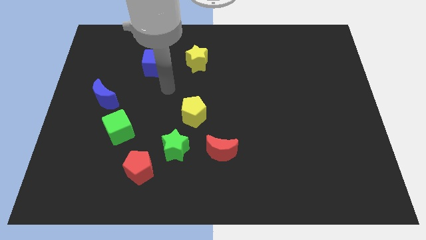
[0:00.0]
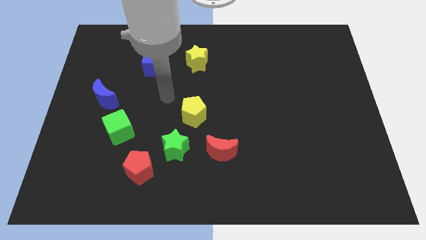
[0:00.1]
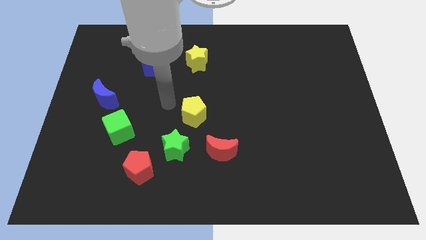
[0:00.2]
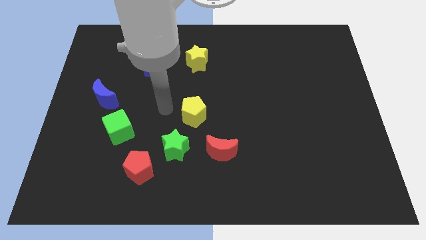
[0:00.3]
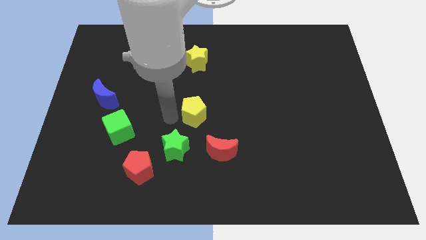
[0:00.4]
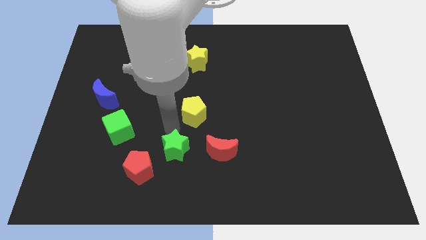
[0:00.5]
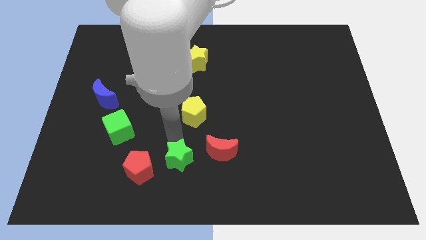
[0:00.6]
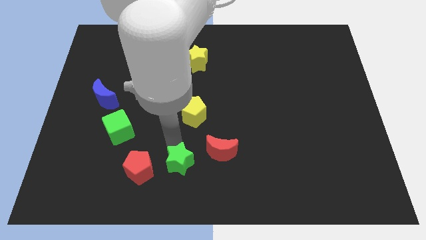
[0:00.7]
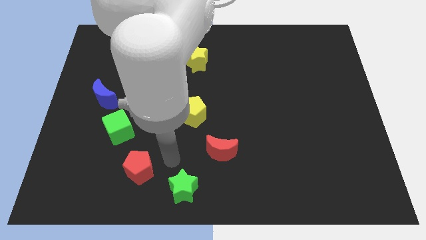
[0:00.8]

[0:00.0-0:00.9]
separate the red pentagon from the green star

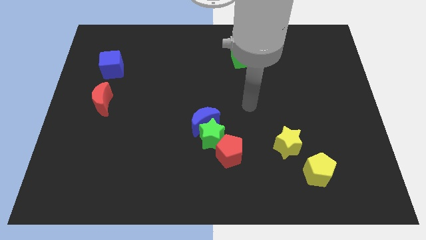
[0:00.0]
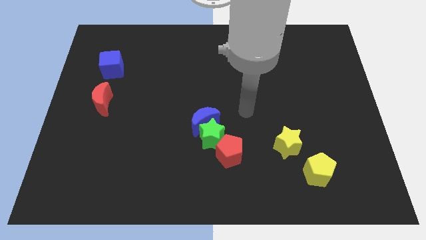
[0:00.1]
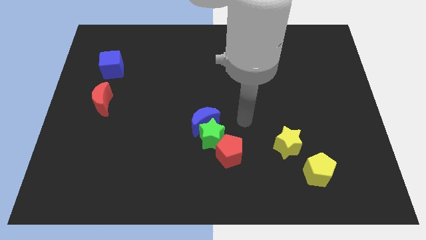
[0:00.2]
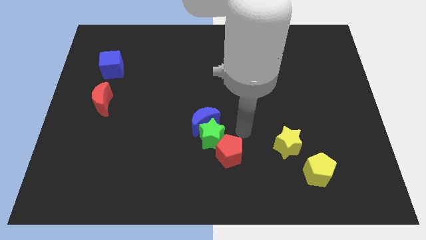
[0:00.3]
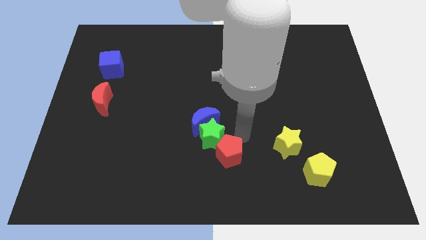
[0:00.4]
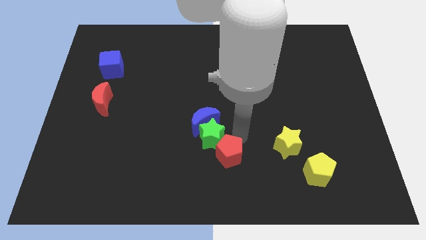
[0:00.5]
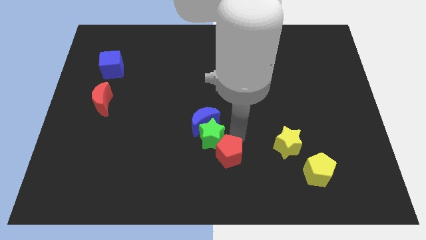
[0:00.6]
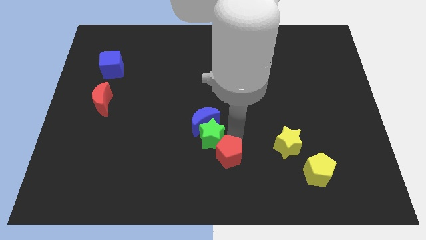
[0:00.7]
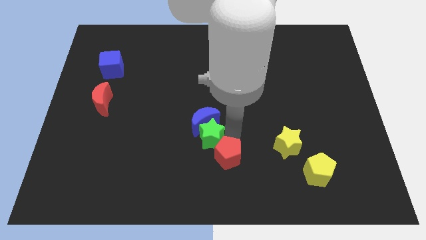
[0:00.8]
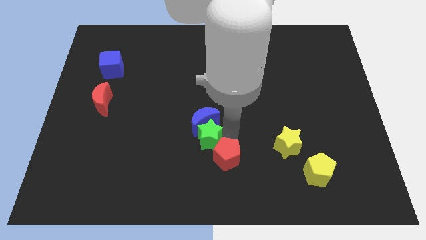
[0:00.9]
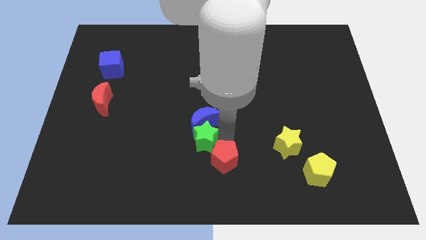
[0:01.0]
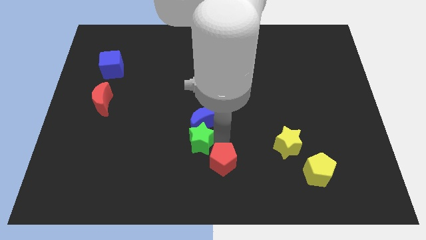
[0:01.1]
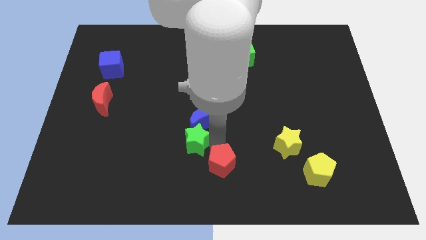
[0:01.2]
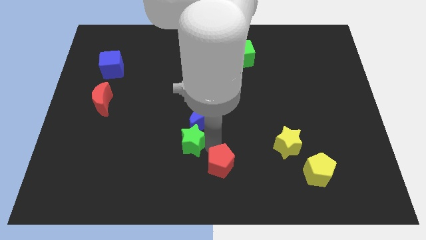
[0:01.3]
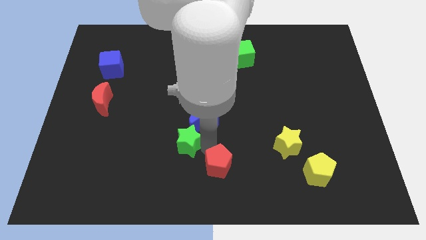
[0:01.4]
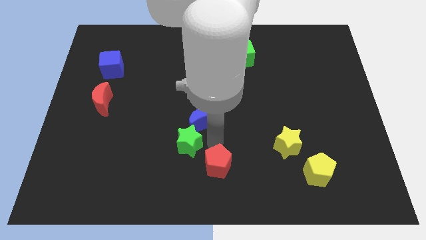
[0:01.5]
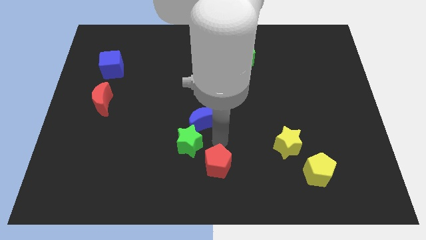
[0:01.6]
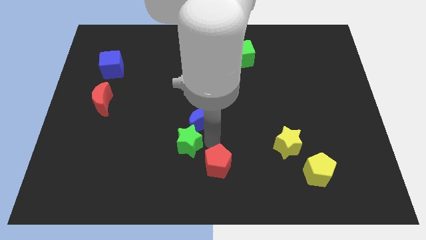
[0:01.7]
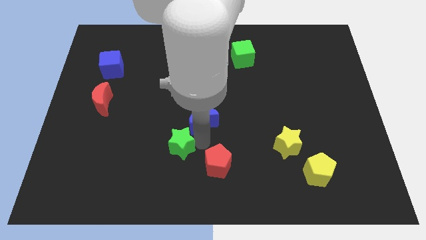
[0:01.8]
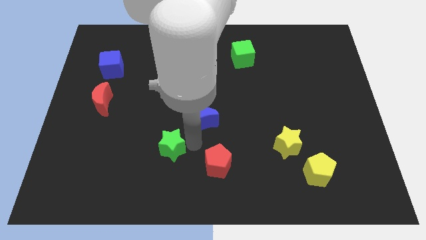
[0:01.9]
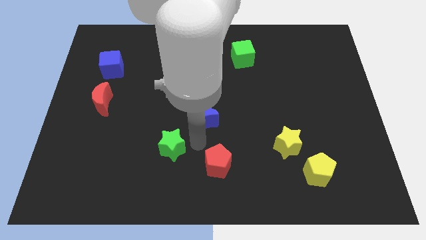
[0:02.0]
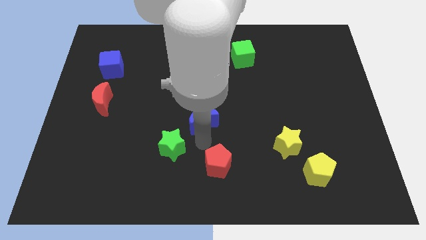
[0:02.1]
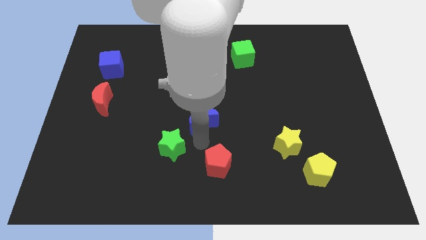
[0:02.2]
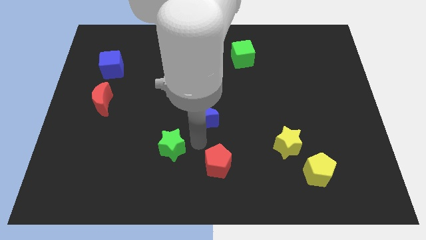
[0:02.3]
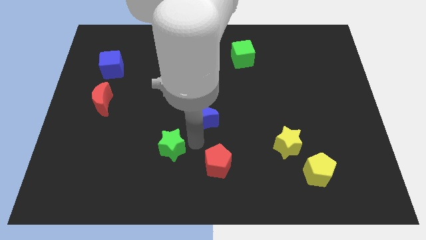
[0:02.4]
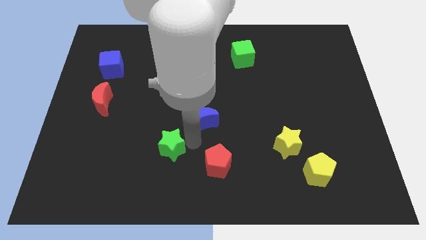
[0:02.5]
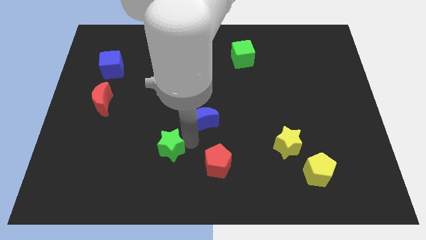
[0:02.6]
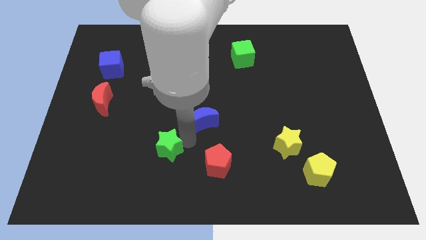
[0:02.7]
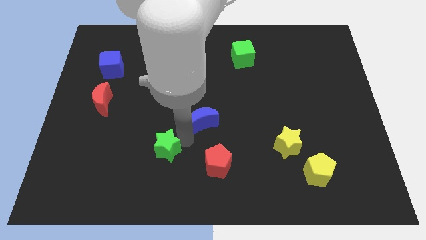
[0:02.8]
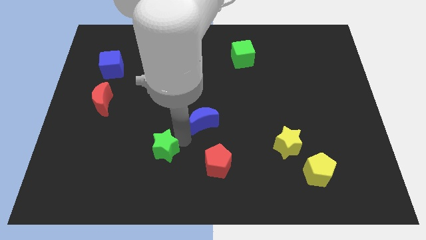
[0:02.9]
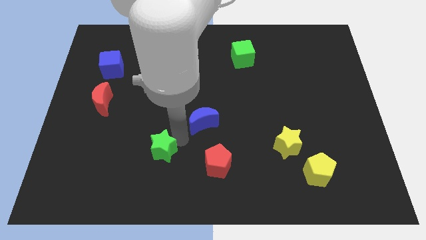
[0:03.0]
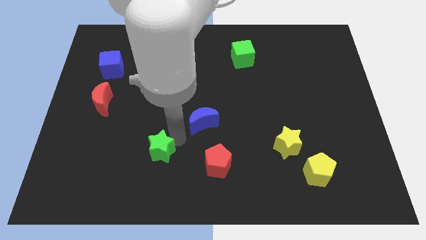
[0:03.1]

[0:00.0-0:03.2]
separate the green star from the blue moon and red pentagon

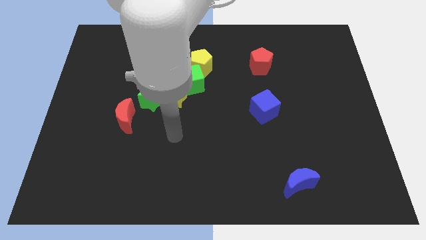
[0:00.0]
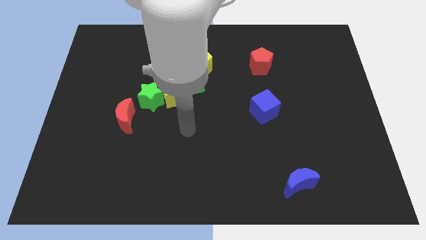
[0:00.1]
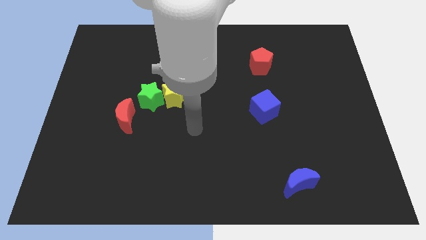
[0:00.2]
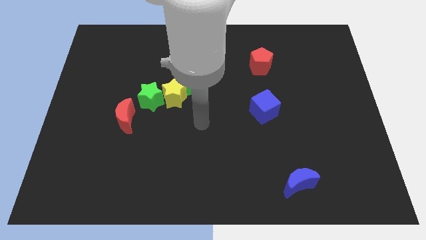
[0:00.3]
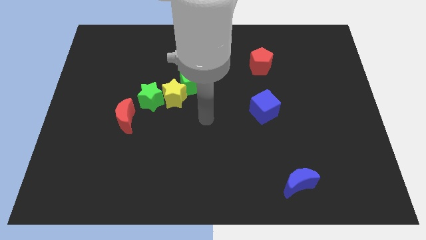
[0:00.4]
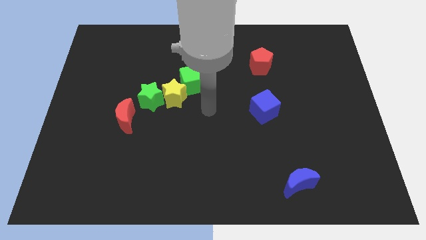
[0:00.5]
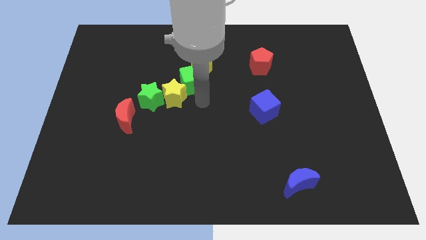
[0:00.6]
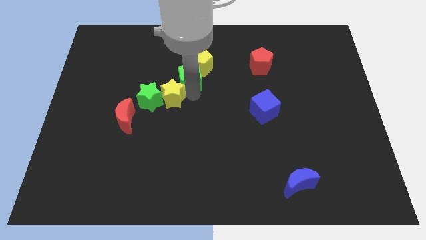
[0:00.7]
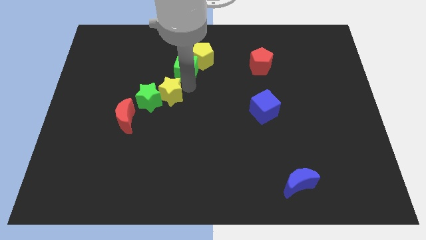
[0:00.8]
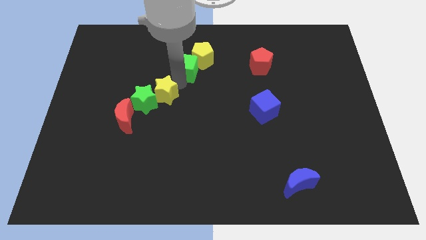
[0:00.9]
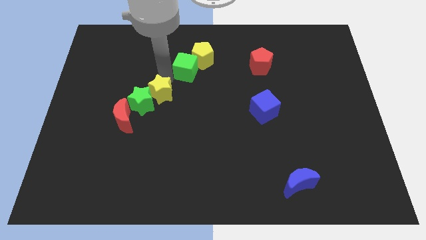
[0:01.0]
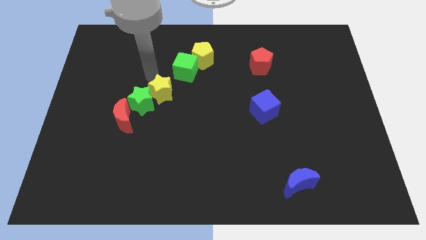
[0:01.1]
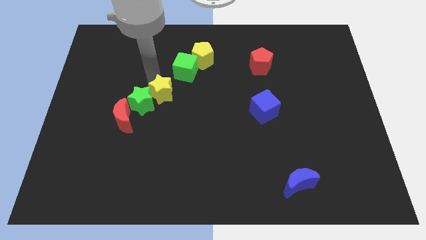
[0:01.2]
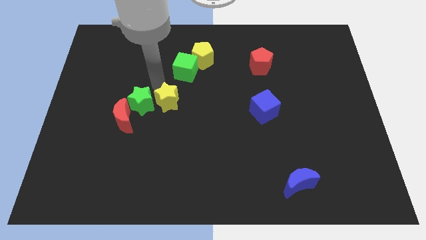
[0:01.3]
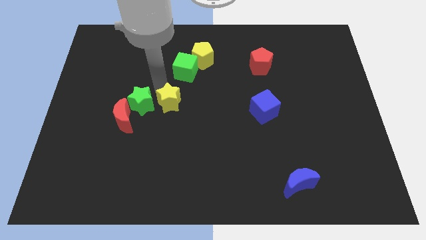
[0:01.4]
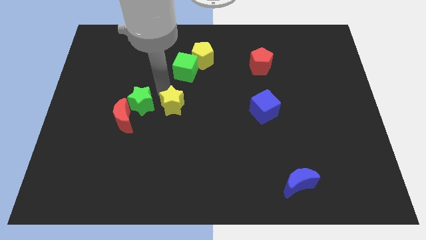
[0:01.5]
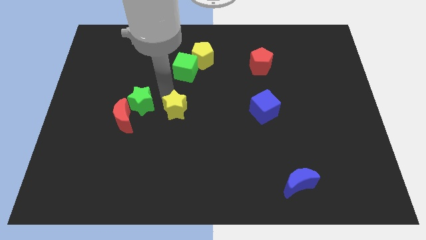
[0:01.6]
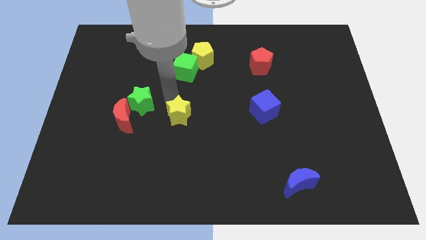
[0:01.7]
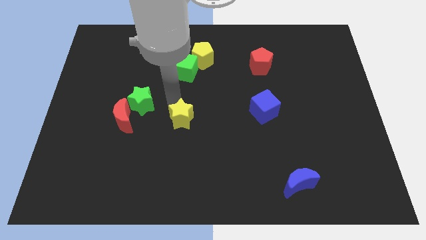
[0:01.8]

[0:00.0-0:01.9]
separate the yellow star from the green star and green cube

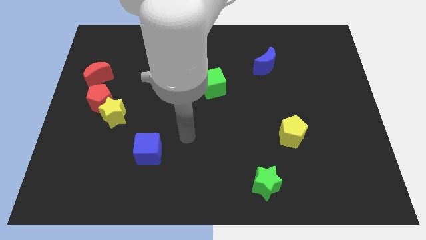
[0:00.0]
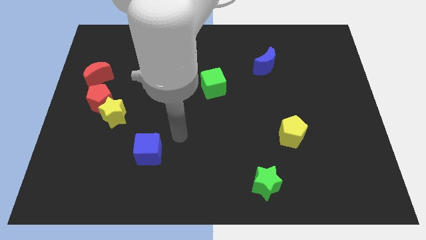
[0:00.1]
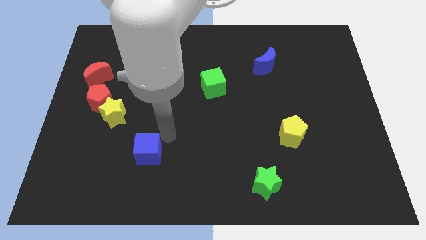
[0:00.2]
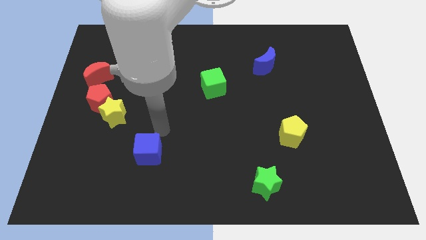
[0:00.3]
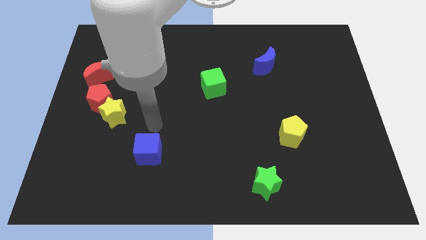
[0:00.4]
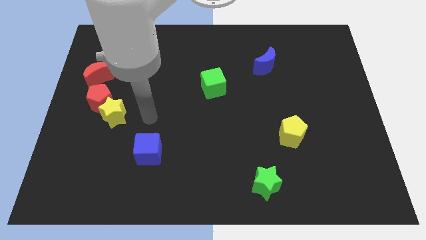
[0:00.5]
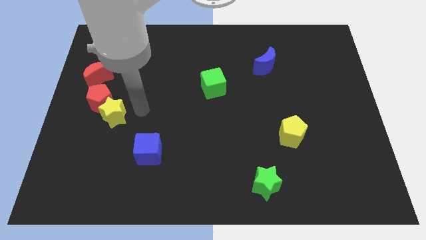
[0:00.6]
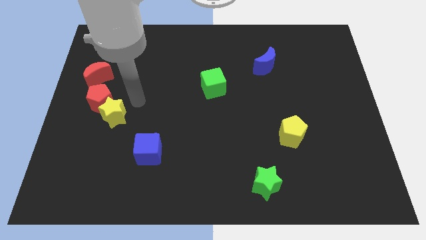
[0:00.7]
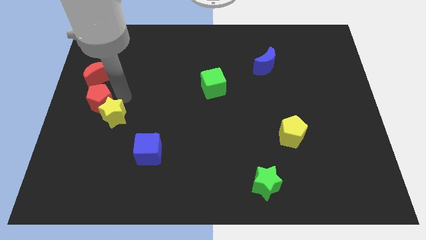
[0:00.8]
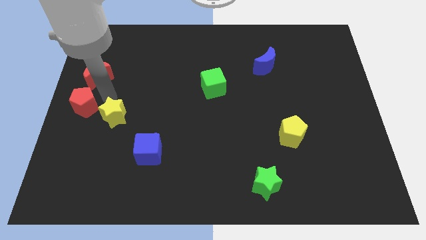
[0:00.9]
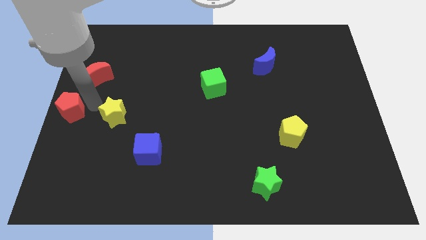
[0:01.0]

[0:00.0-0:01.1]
pull the yellow star apart from the red pentagon

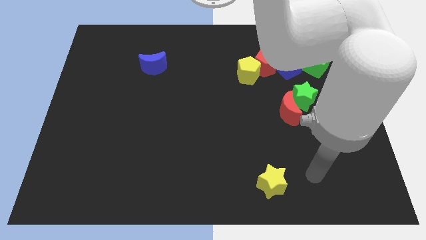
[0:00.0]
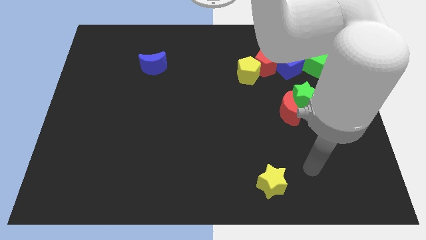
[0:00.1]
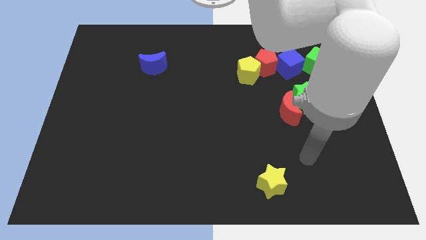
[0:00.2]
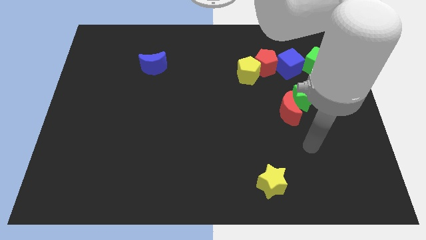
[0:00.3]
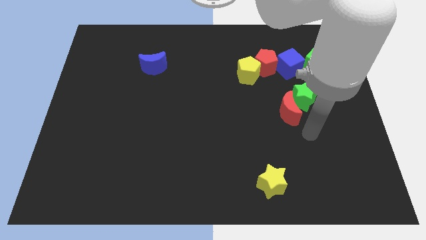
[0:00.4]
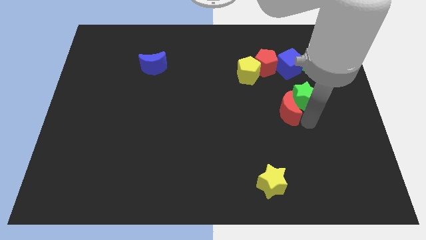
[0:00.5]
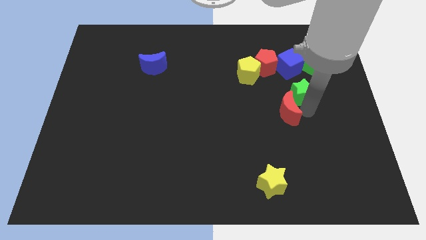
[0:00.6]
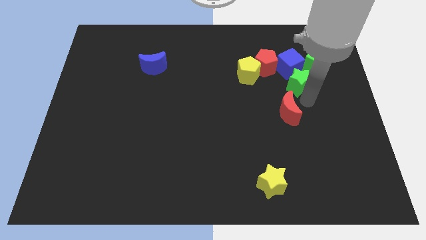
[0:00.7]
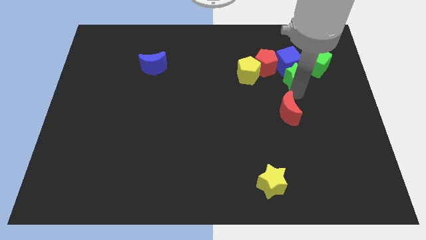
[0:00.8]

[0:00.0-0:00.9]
separate the red moon from the green star

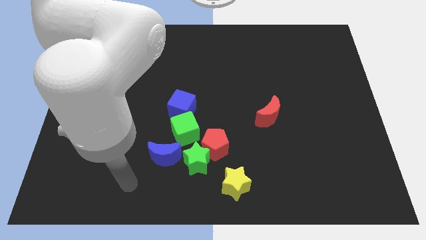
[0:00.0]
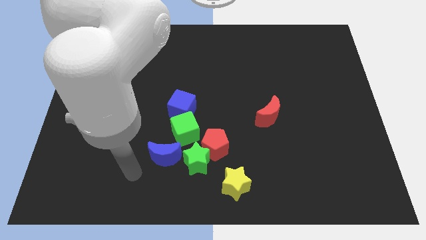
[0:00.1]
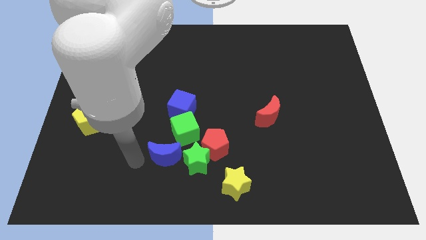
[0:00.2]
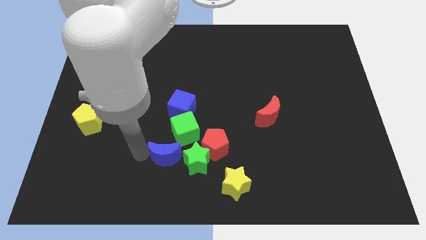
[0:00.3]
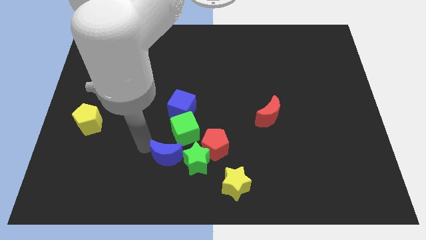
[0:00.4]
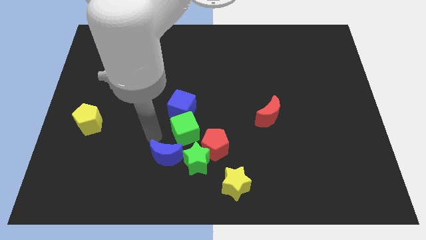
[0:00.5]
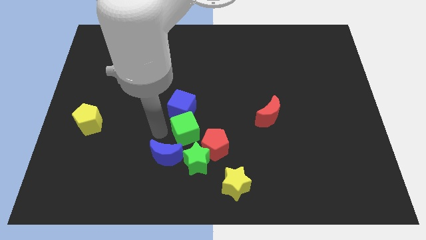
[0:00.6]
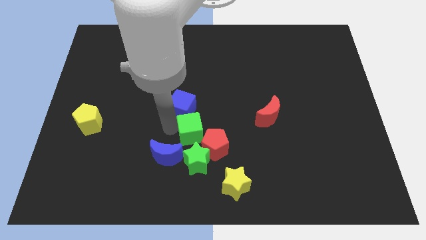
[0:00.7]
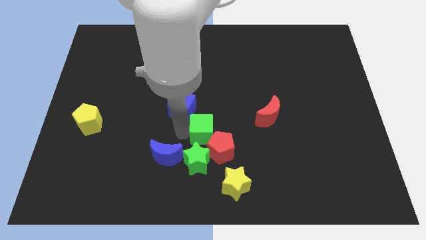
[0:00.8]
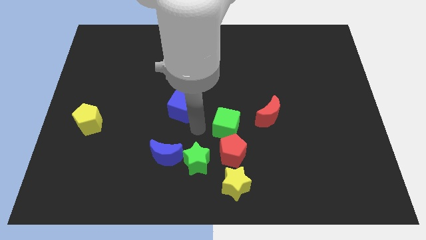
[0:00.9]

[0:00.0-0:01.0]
pull the blue cube apart from the green cube

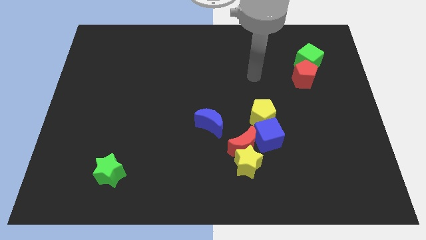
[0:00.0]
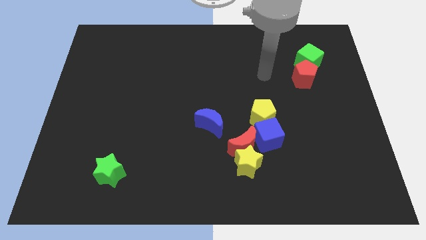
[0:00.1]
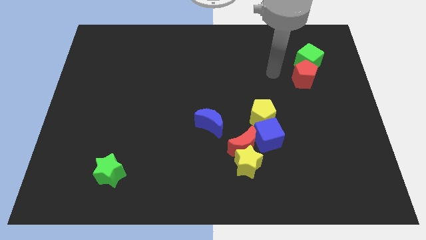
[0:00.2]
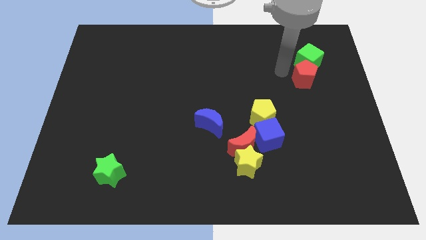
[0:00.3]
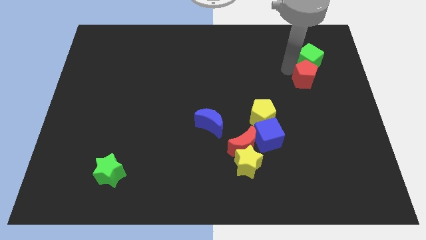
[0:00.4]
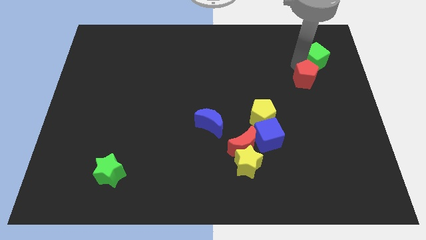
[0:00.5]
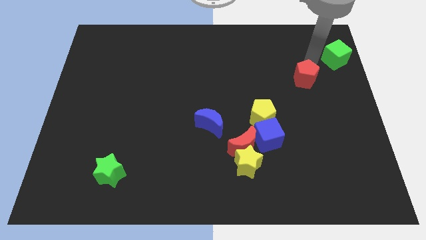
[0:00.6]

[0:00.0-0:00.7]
move the red pentagon away from the green cube
